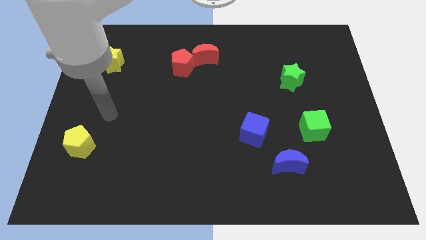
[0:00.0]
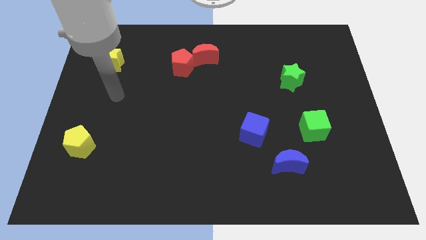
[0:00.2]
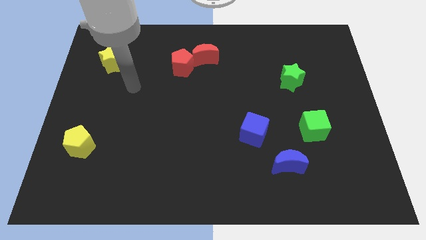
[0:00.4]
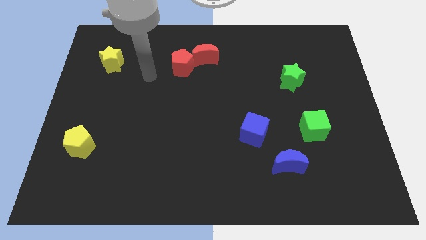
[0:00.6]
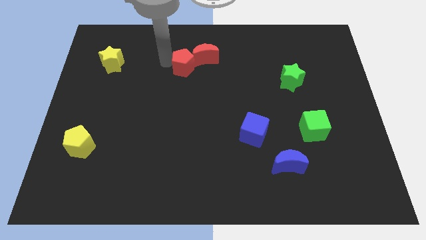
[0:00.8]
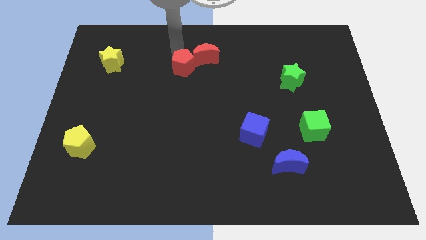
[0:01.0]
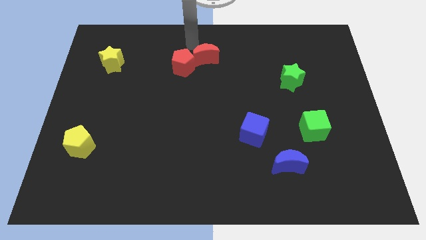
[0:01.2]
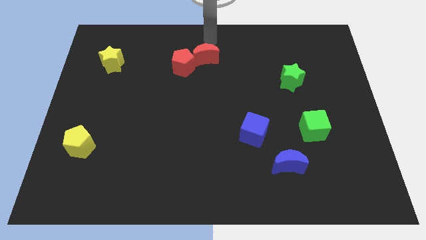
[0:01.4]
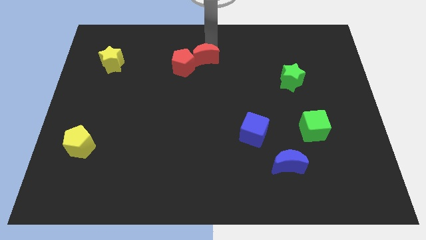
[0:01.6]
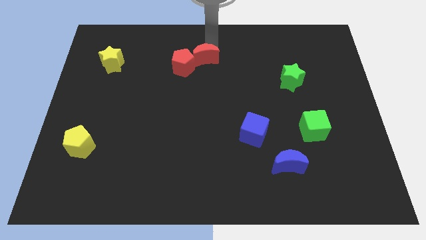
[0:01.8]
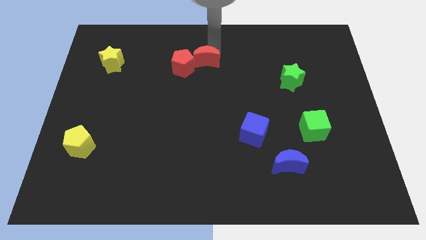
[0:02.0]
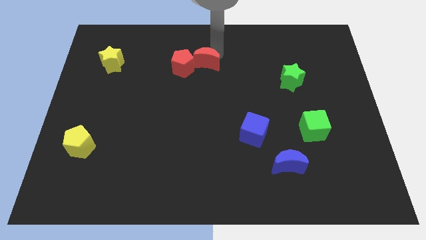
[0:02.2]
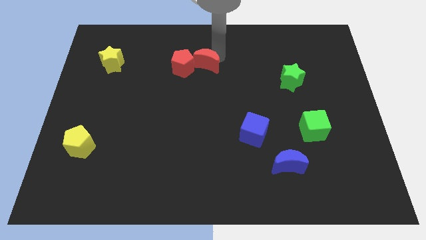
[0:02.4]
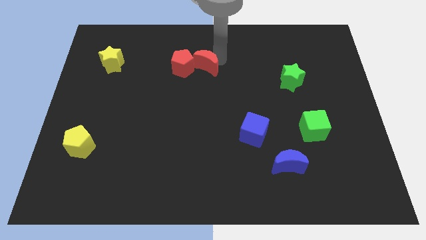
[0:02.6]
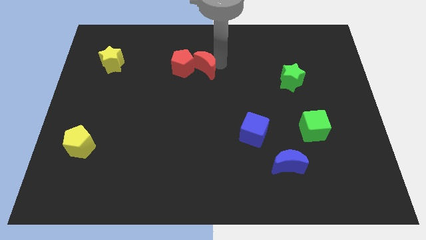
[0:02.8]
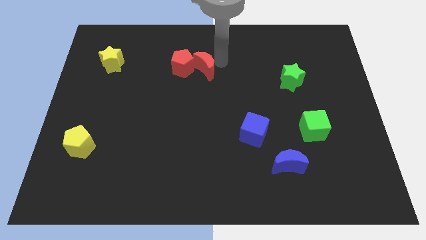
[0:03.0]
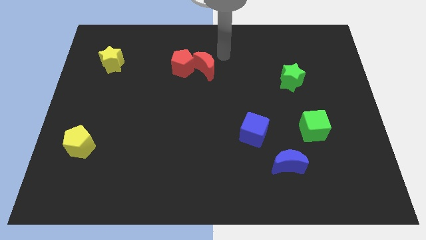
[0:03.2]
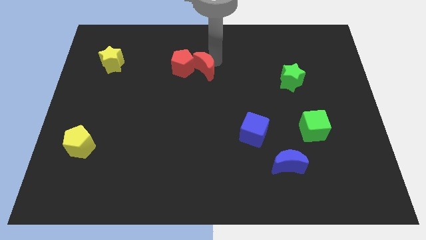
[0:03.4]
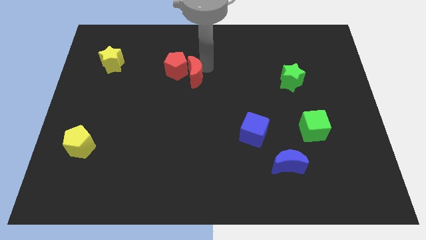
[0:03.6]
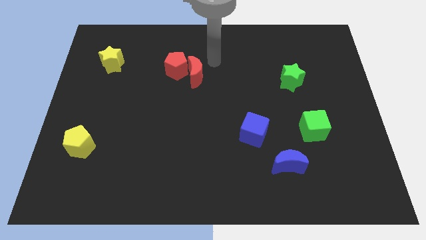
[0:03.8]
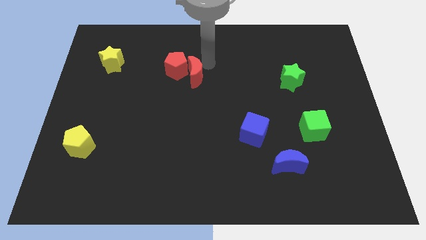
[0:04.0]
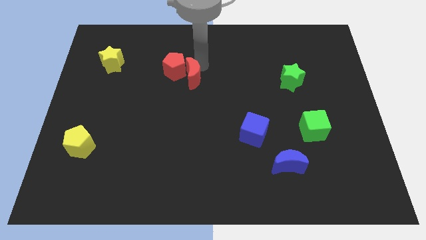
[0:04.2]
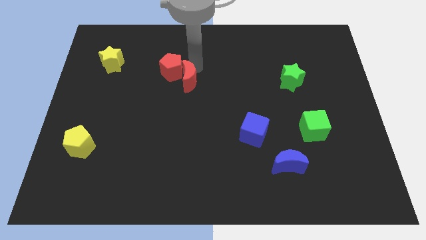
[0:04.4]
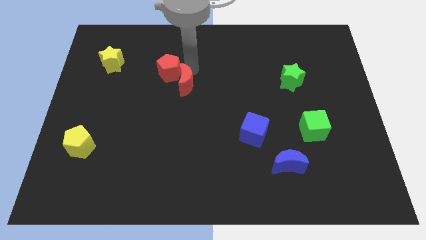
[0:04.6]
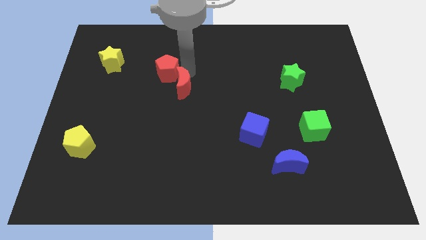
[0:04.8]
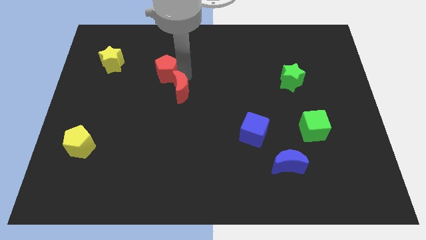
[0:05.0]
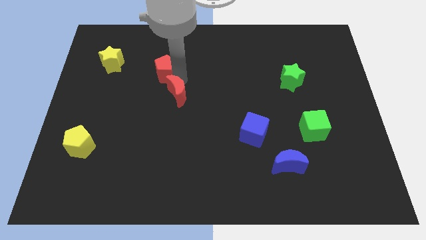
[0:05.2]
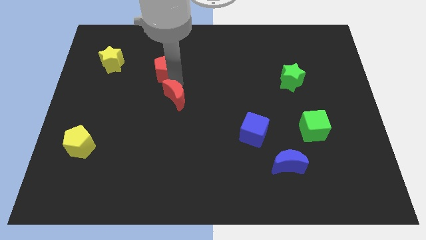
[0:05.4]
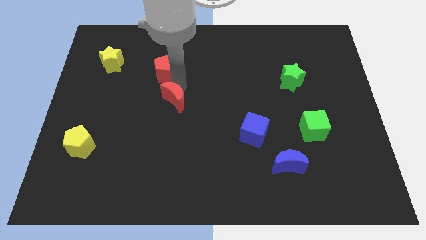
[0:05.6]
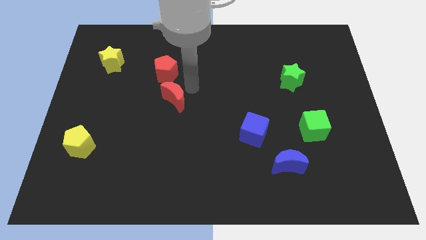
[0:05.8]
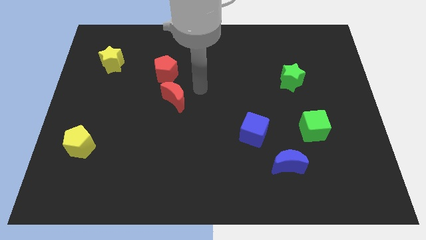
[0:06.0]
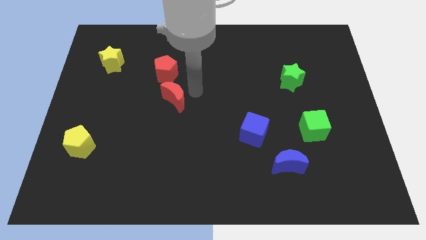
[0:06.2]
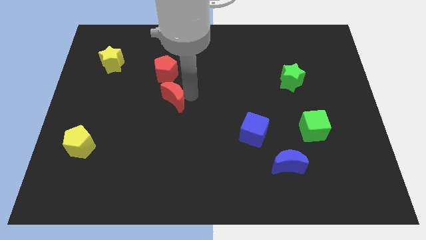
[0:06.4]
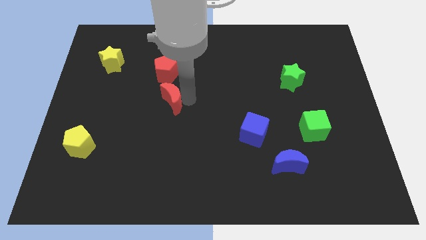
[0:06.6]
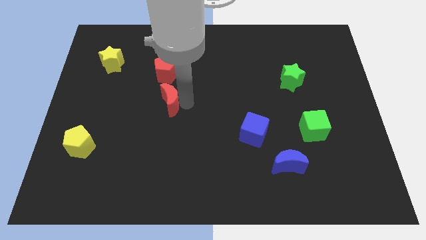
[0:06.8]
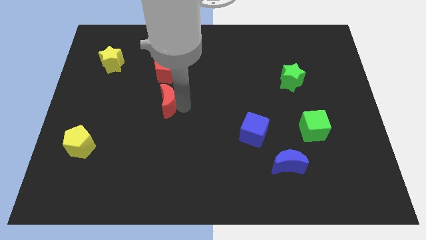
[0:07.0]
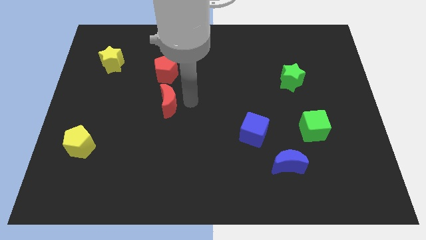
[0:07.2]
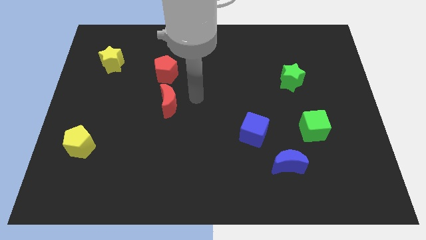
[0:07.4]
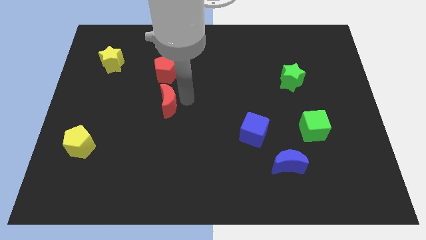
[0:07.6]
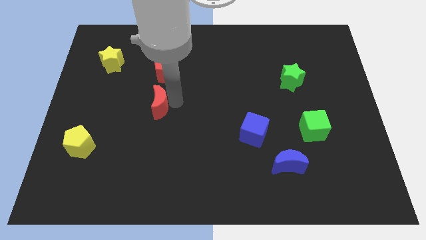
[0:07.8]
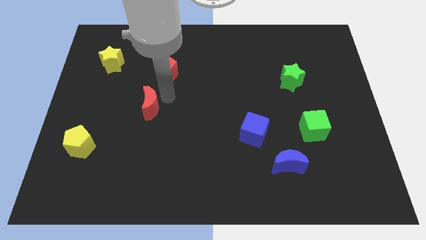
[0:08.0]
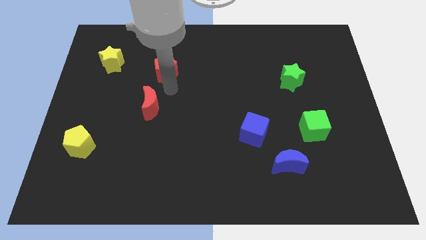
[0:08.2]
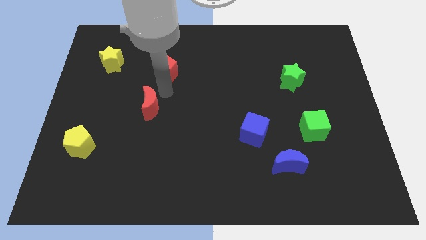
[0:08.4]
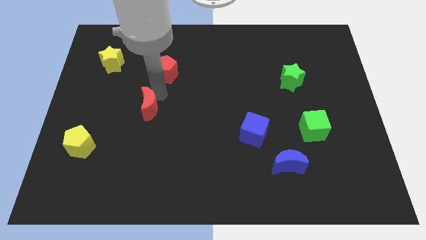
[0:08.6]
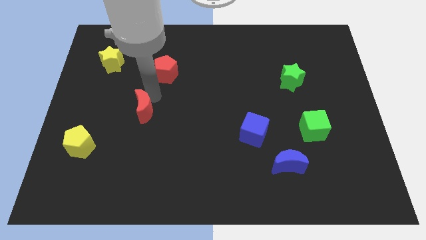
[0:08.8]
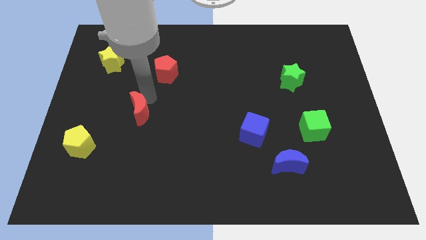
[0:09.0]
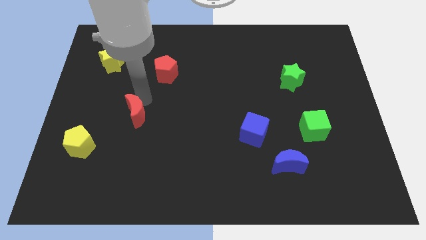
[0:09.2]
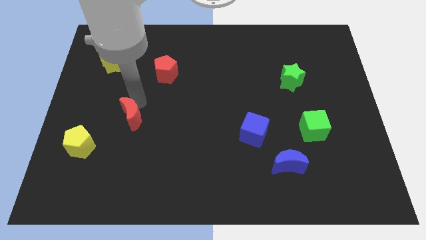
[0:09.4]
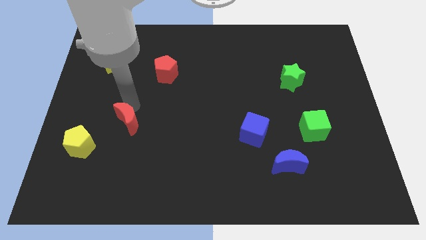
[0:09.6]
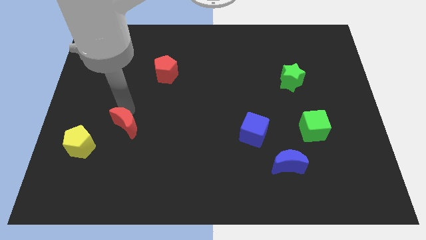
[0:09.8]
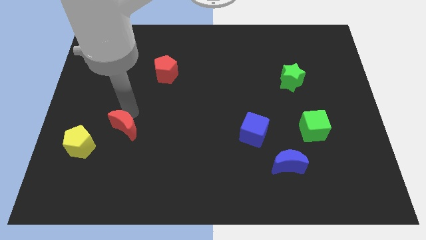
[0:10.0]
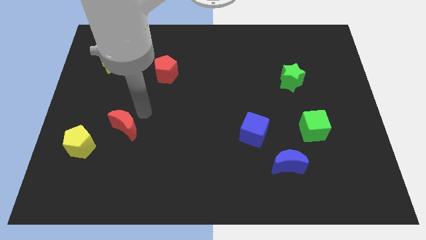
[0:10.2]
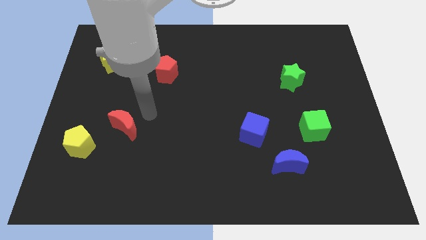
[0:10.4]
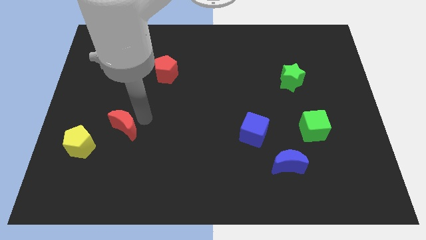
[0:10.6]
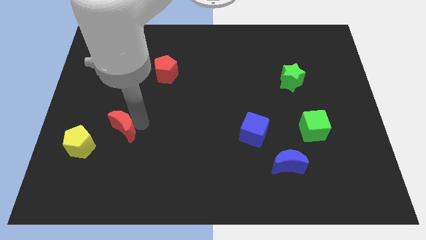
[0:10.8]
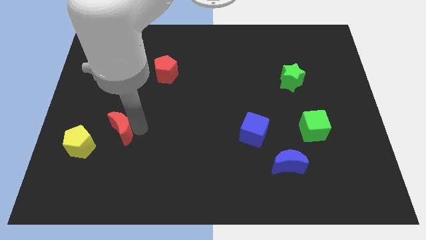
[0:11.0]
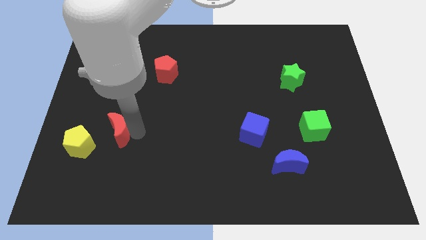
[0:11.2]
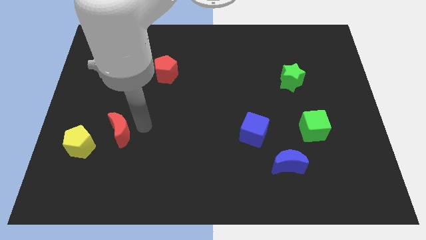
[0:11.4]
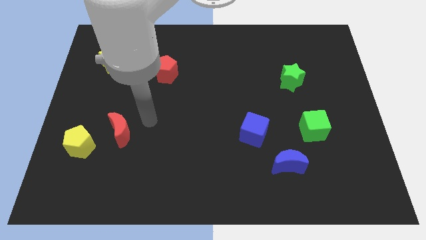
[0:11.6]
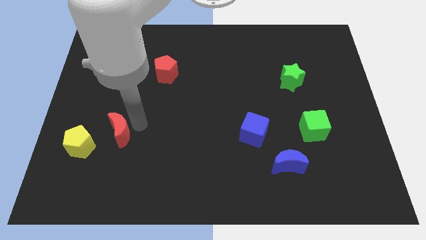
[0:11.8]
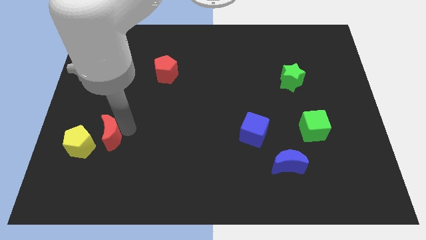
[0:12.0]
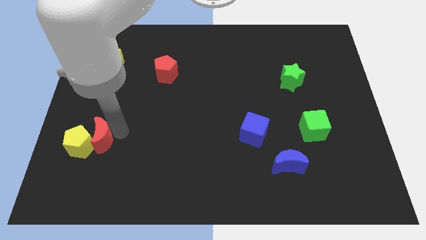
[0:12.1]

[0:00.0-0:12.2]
put the red moon next to the yellow pentagon

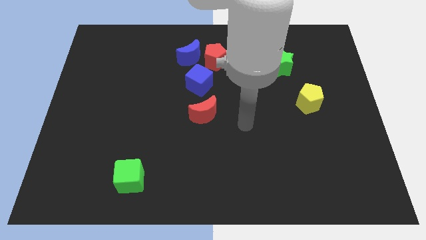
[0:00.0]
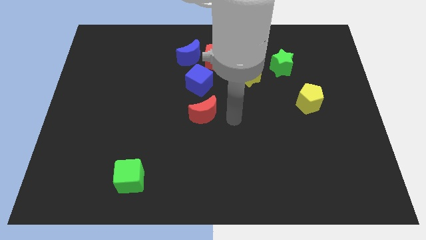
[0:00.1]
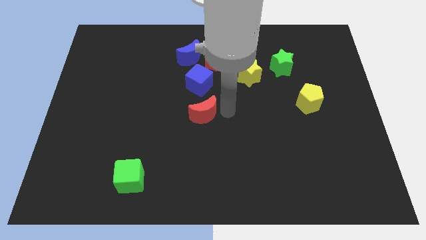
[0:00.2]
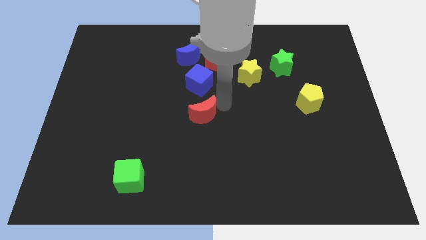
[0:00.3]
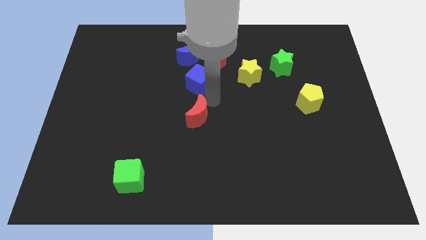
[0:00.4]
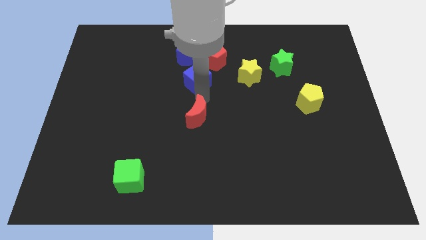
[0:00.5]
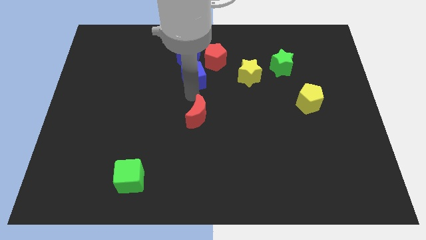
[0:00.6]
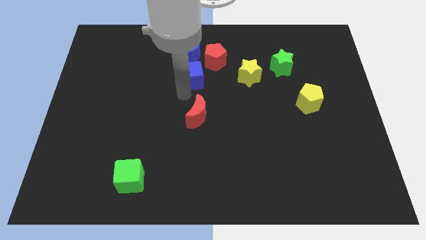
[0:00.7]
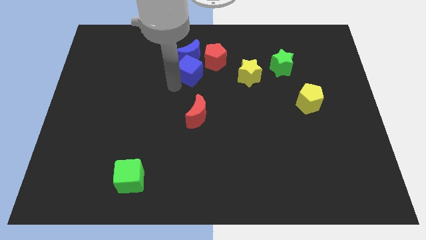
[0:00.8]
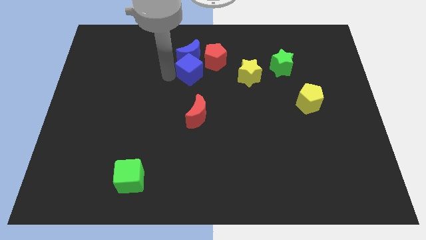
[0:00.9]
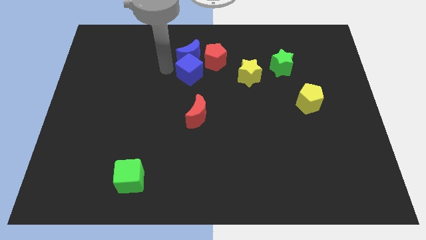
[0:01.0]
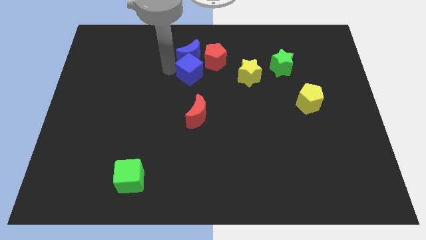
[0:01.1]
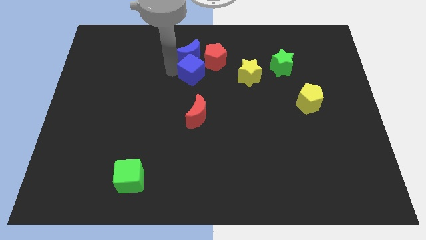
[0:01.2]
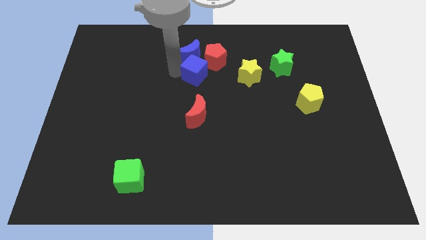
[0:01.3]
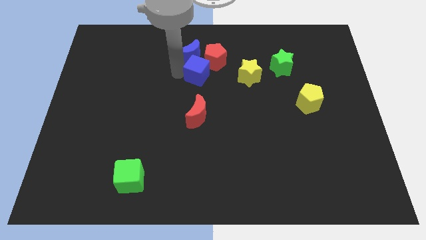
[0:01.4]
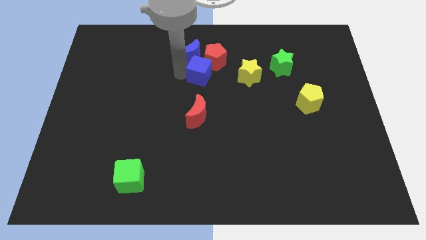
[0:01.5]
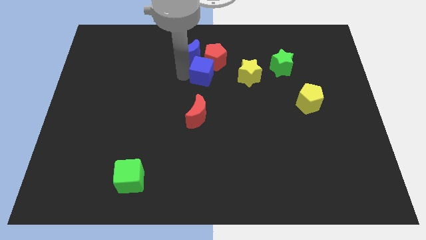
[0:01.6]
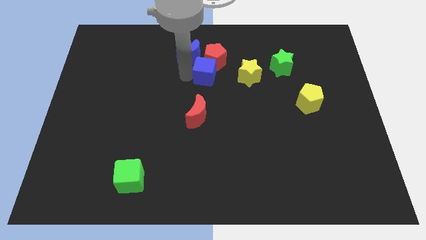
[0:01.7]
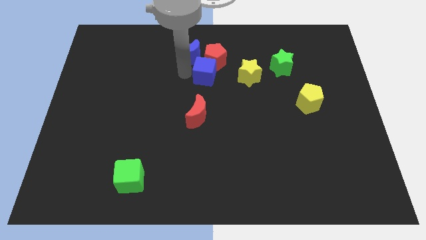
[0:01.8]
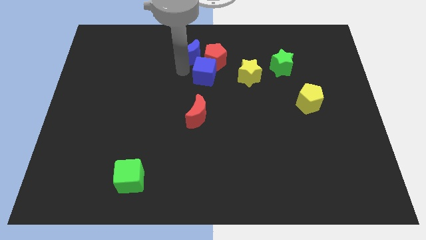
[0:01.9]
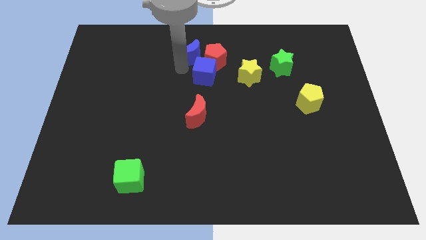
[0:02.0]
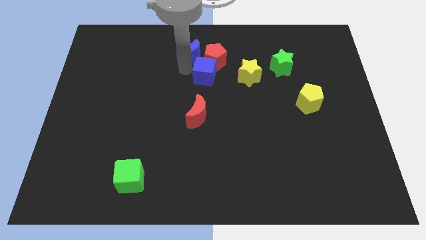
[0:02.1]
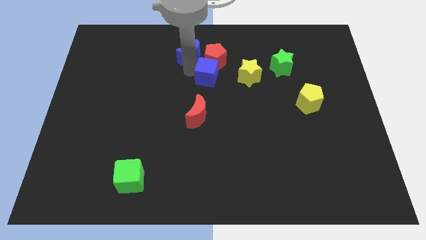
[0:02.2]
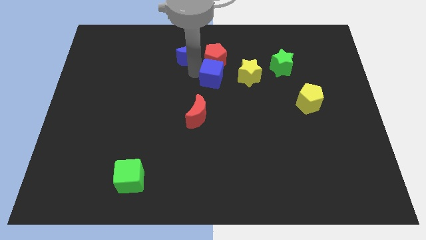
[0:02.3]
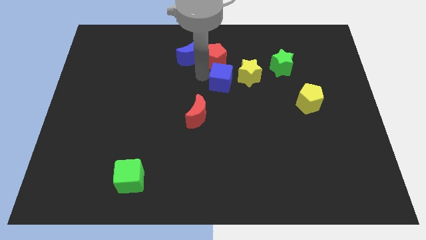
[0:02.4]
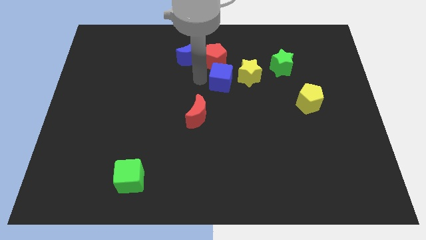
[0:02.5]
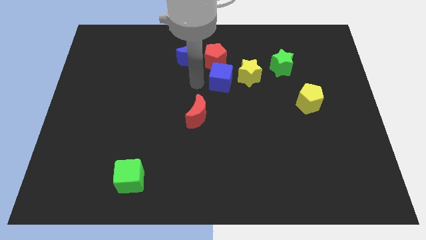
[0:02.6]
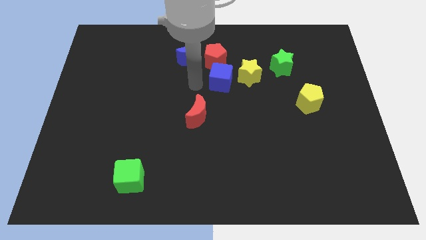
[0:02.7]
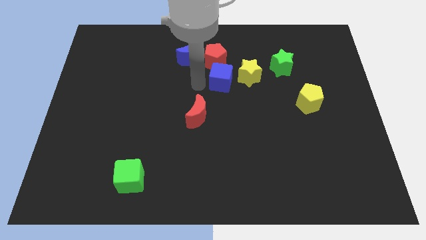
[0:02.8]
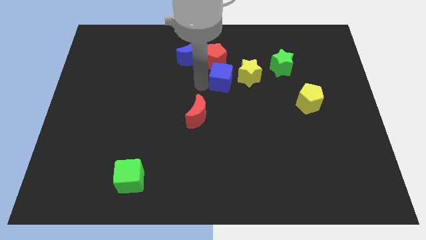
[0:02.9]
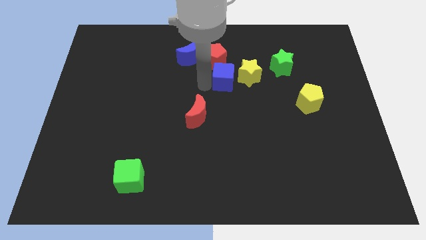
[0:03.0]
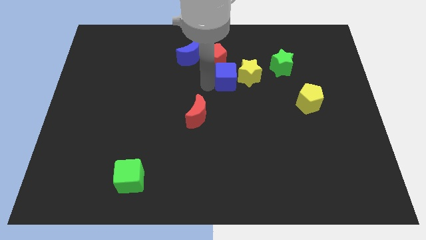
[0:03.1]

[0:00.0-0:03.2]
push the blue cube towards the yellow star
